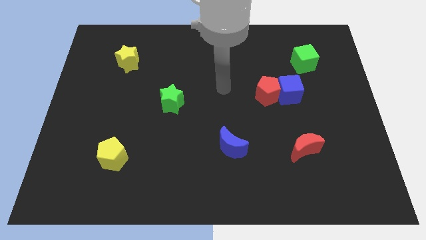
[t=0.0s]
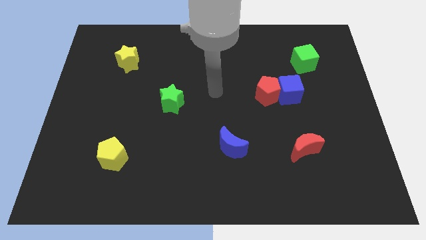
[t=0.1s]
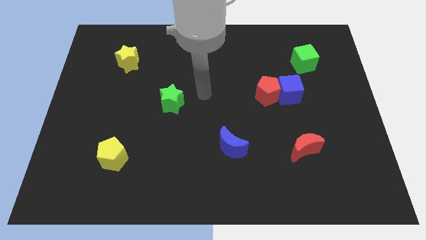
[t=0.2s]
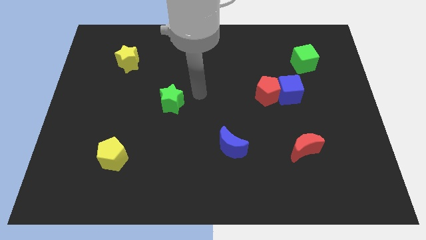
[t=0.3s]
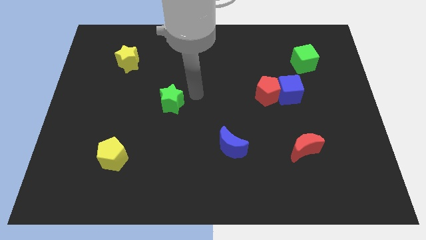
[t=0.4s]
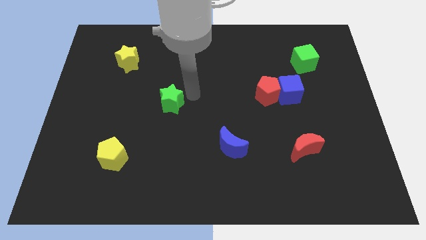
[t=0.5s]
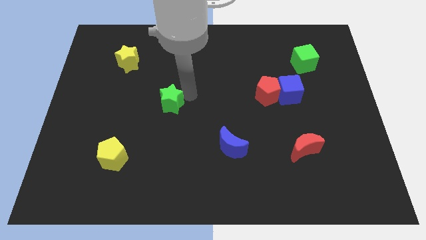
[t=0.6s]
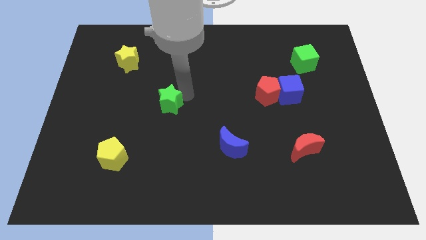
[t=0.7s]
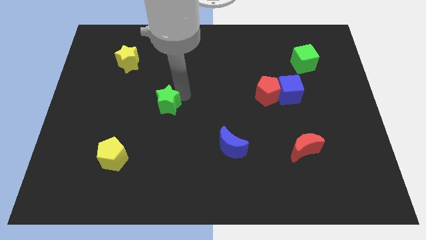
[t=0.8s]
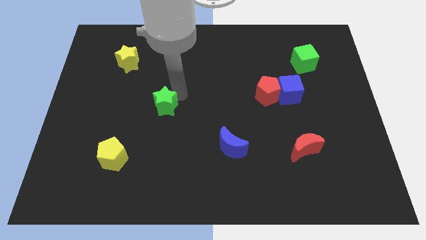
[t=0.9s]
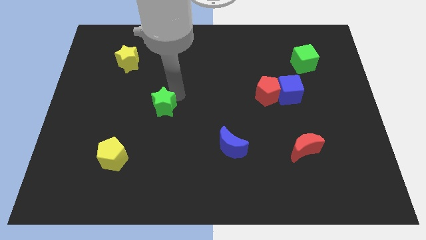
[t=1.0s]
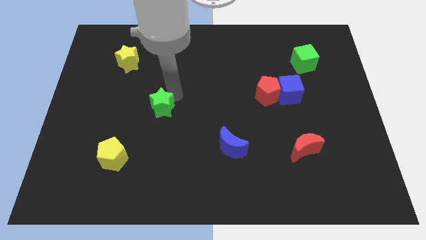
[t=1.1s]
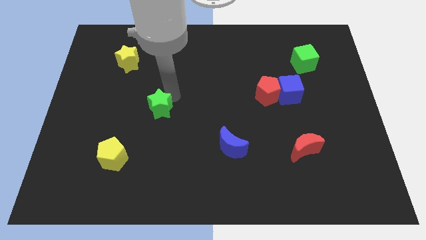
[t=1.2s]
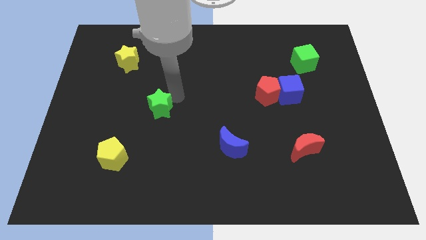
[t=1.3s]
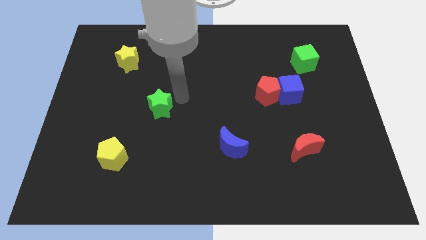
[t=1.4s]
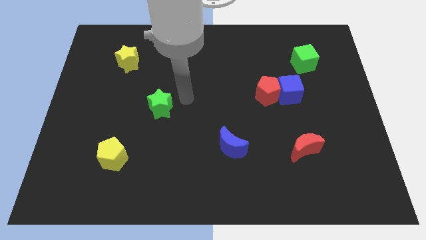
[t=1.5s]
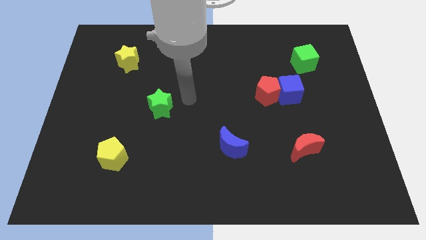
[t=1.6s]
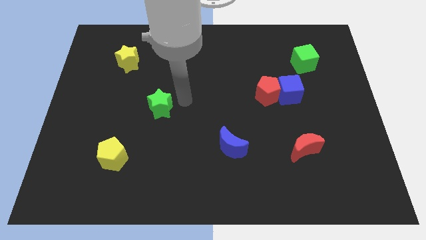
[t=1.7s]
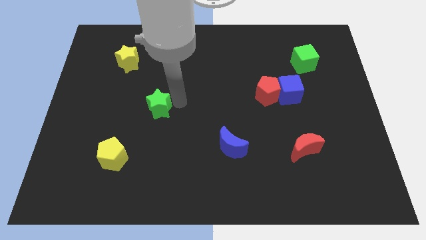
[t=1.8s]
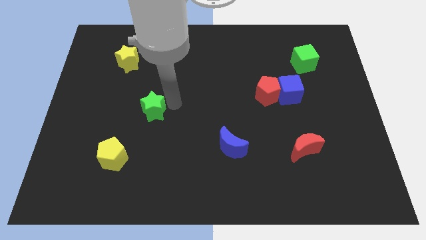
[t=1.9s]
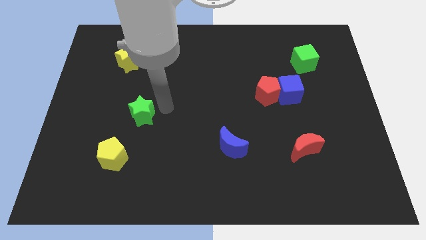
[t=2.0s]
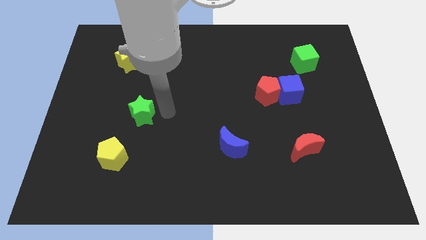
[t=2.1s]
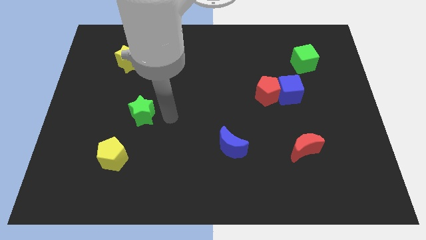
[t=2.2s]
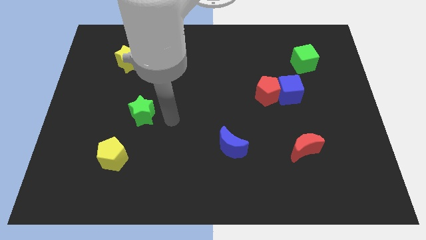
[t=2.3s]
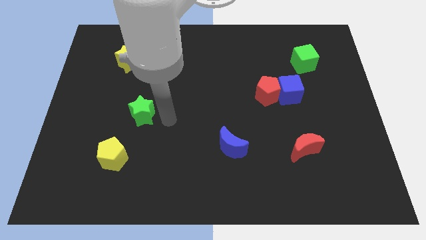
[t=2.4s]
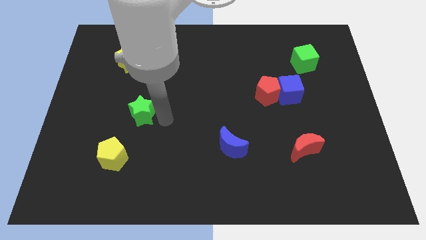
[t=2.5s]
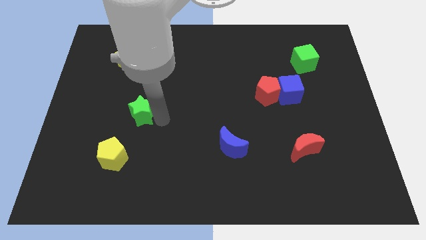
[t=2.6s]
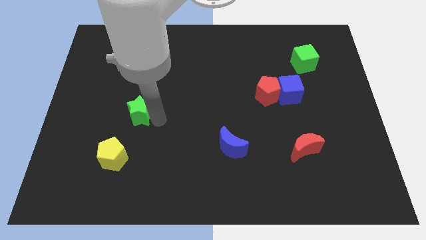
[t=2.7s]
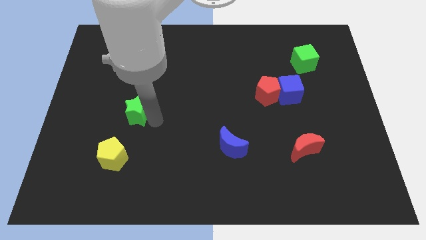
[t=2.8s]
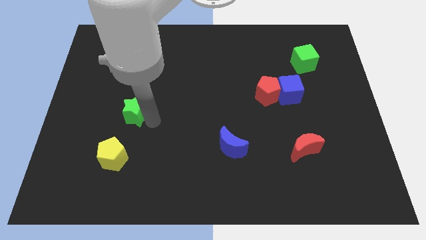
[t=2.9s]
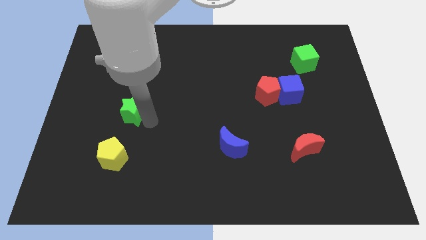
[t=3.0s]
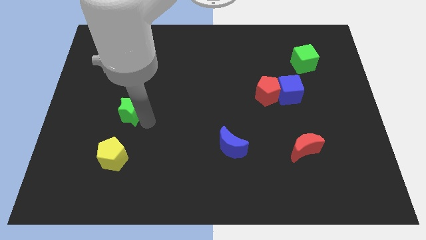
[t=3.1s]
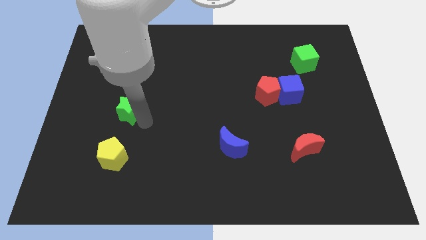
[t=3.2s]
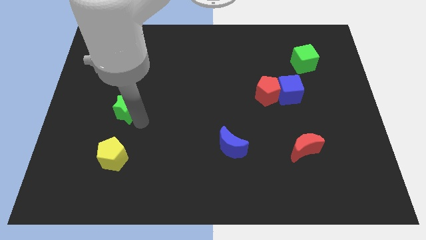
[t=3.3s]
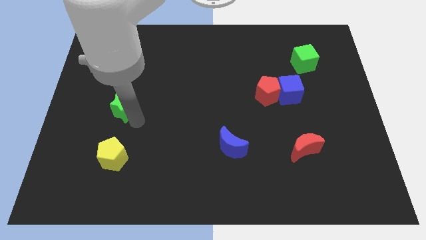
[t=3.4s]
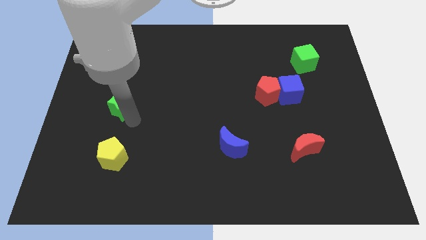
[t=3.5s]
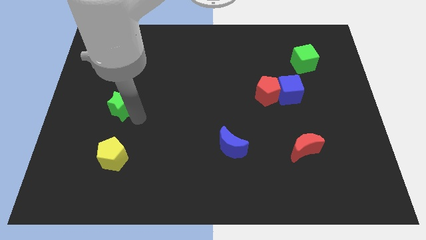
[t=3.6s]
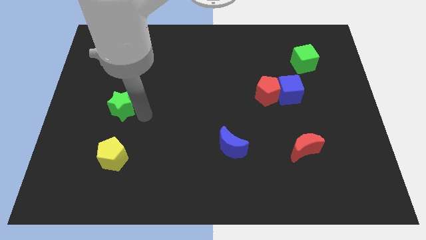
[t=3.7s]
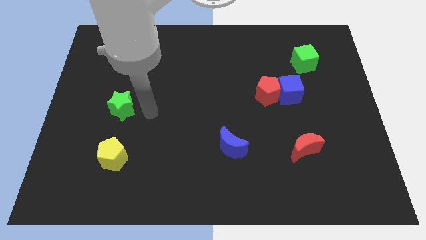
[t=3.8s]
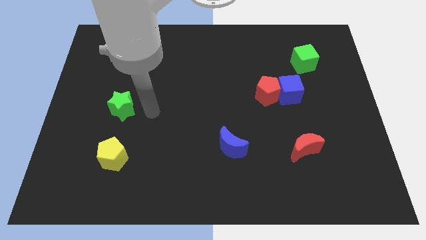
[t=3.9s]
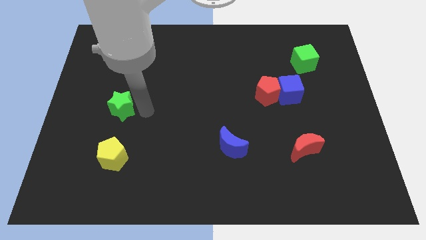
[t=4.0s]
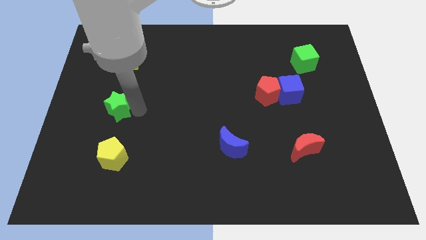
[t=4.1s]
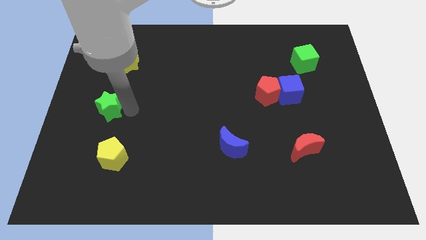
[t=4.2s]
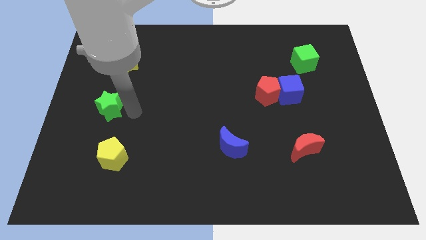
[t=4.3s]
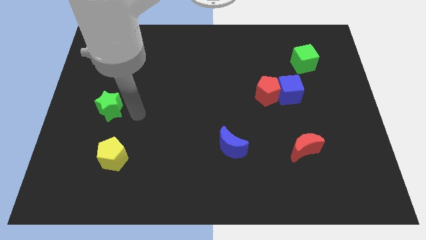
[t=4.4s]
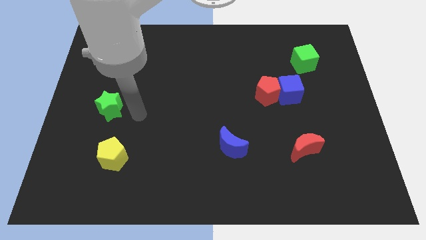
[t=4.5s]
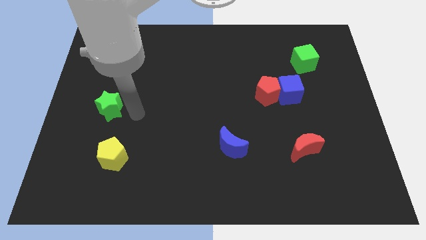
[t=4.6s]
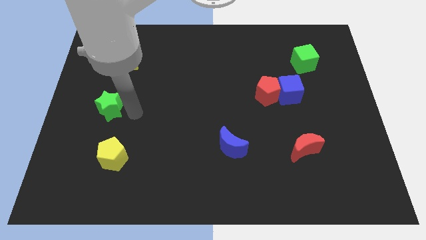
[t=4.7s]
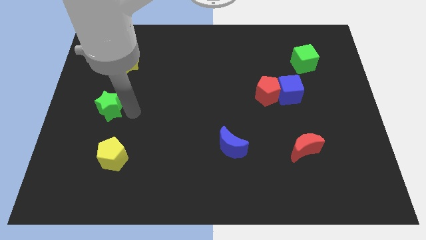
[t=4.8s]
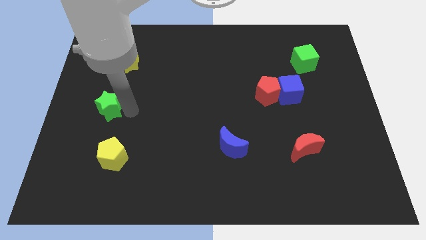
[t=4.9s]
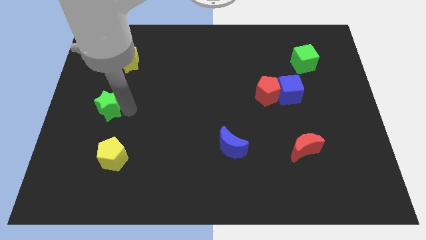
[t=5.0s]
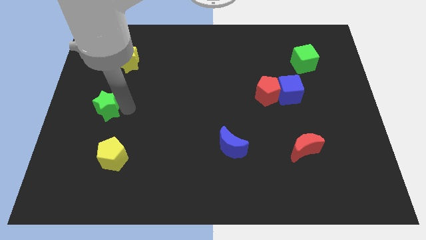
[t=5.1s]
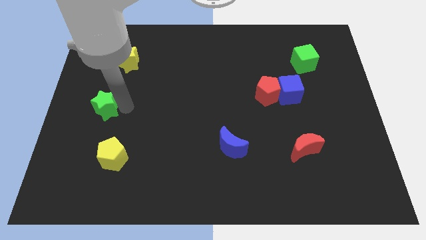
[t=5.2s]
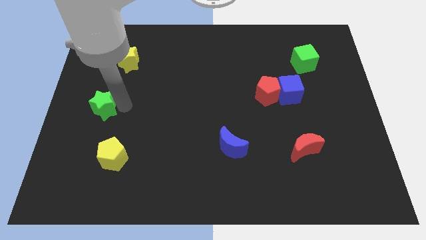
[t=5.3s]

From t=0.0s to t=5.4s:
slide the green star to the left side of the board

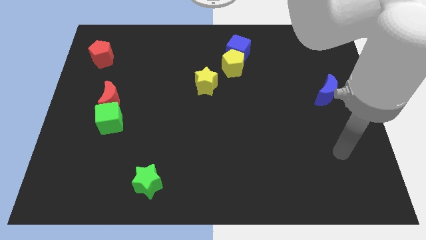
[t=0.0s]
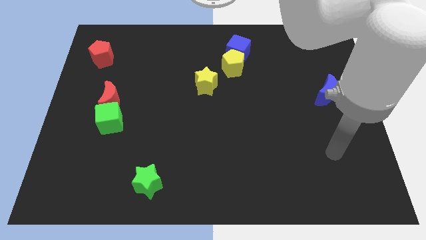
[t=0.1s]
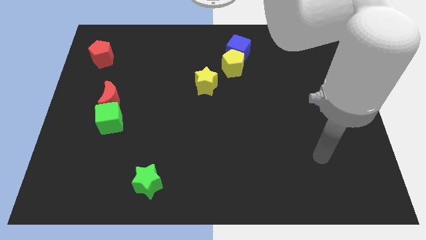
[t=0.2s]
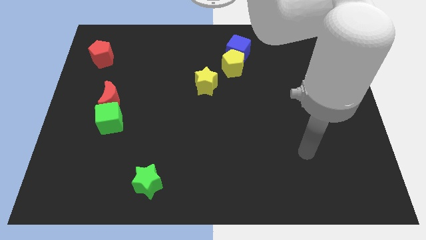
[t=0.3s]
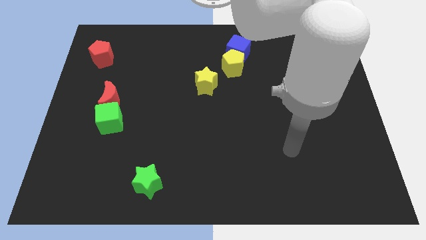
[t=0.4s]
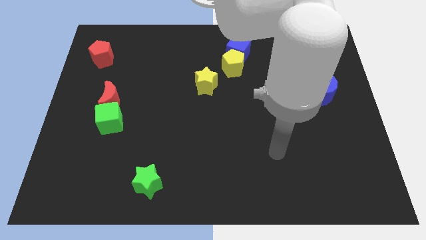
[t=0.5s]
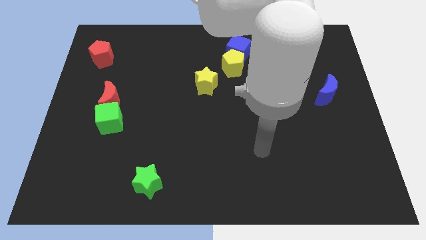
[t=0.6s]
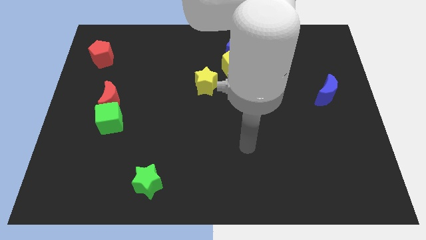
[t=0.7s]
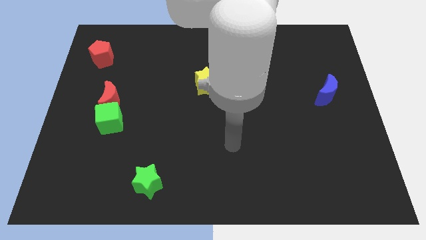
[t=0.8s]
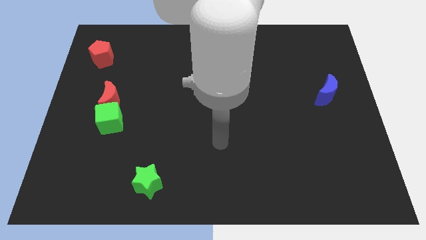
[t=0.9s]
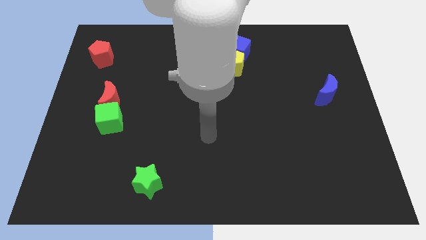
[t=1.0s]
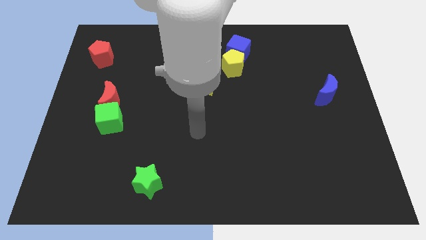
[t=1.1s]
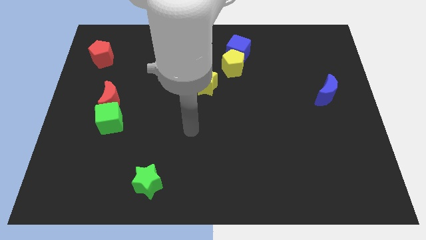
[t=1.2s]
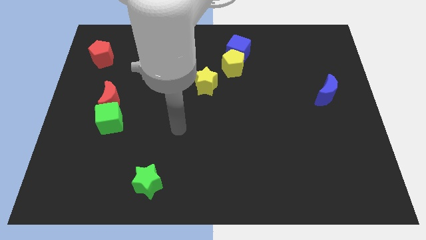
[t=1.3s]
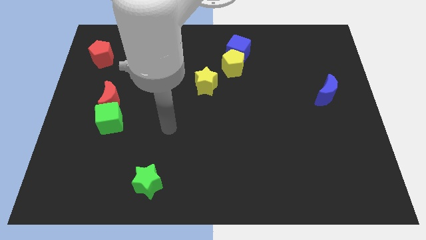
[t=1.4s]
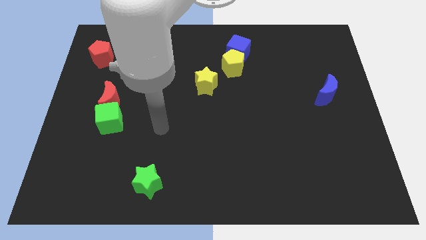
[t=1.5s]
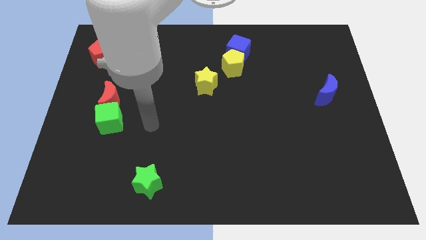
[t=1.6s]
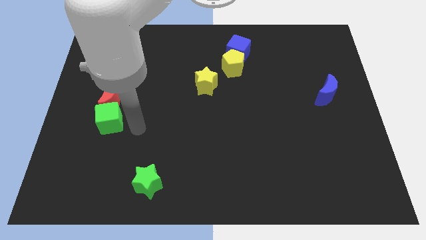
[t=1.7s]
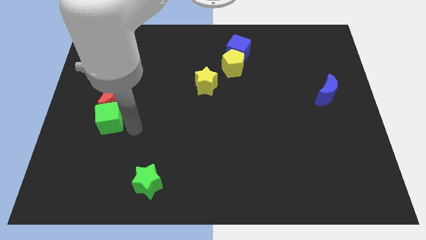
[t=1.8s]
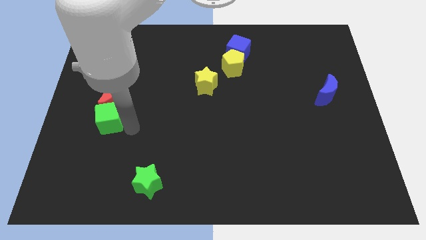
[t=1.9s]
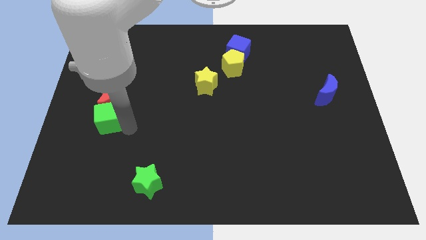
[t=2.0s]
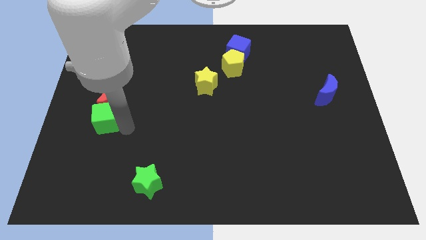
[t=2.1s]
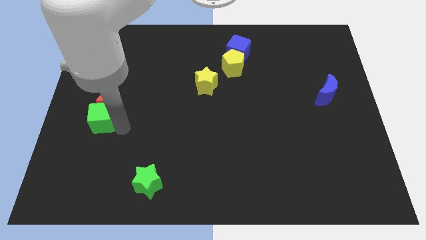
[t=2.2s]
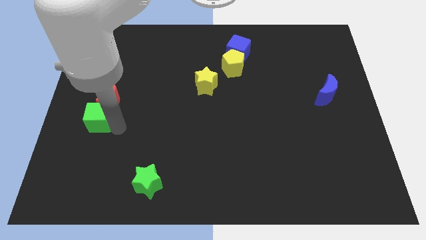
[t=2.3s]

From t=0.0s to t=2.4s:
slide the green cube to the center left
